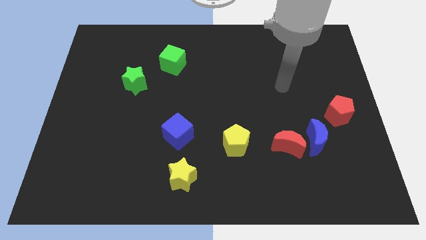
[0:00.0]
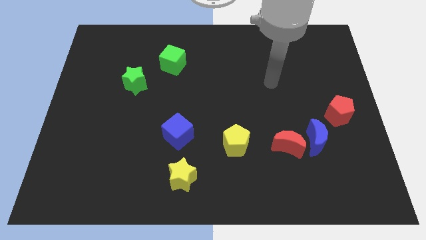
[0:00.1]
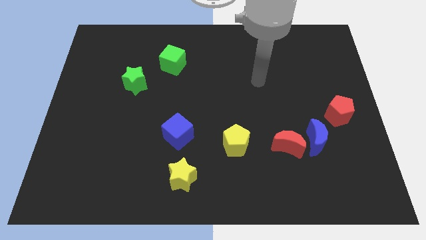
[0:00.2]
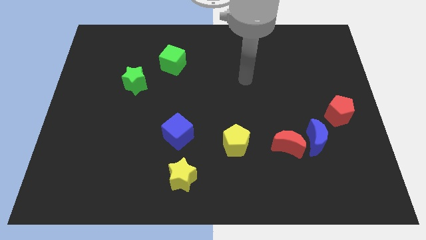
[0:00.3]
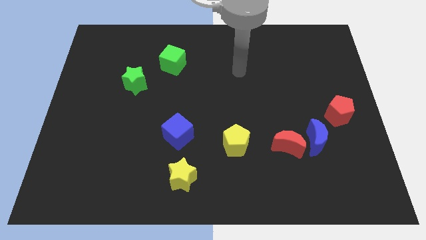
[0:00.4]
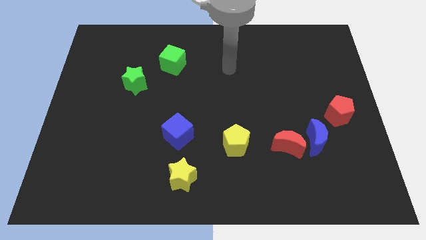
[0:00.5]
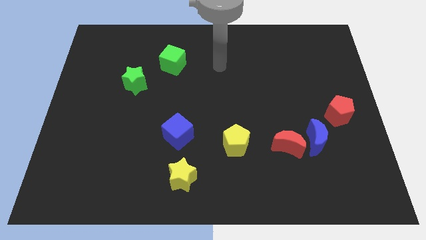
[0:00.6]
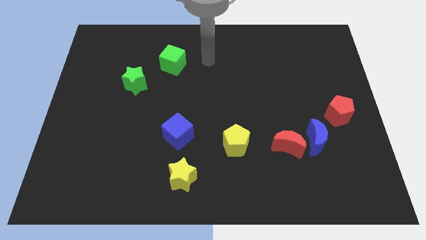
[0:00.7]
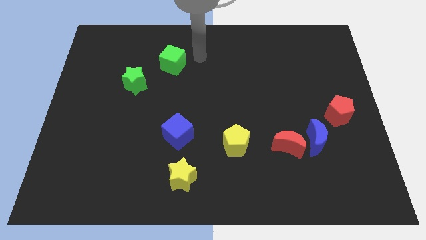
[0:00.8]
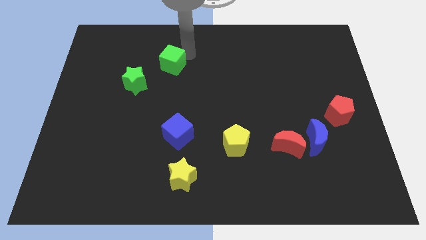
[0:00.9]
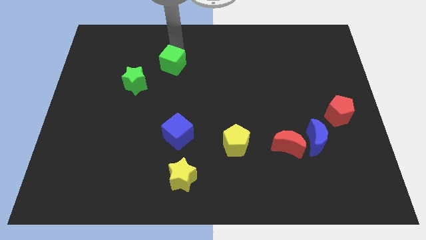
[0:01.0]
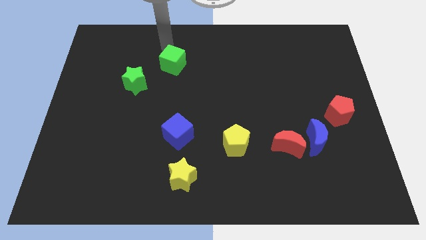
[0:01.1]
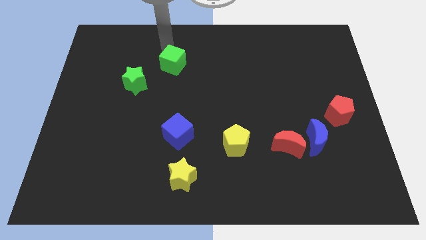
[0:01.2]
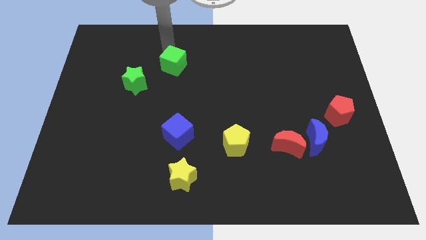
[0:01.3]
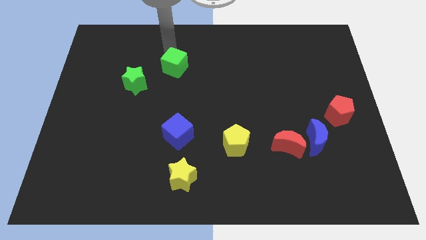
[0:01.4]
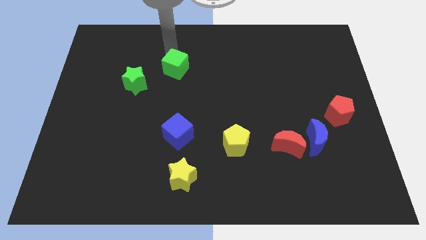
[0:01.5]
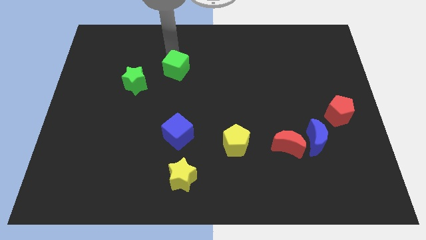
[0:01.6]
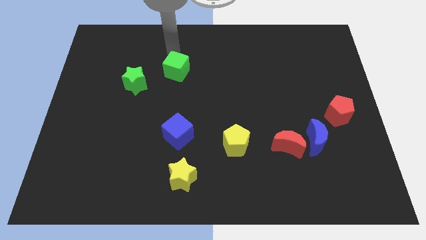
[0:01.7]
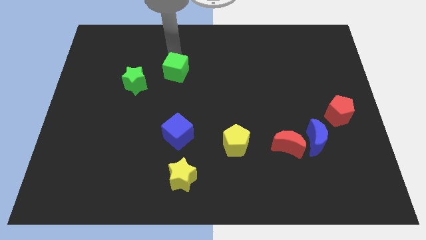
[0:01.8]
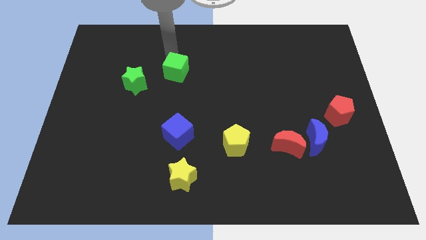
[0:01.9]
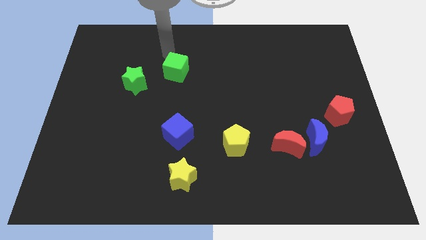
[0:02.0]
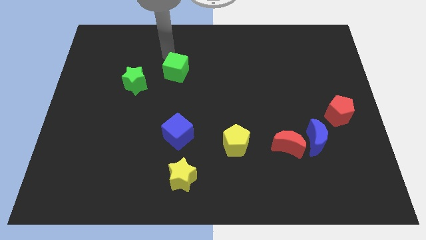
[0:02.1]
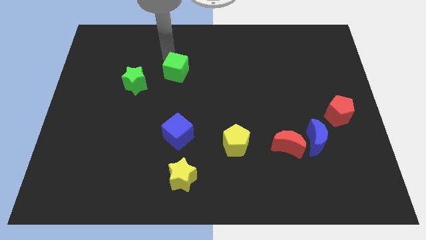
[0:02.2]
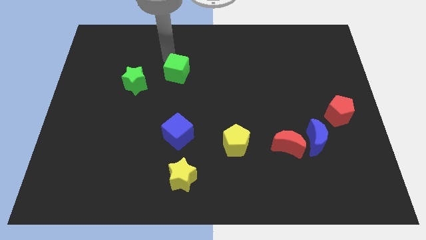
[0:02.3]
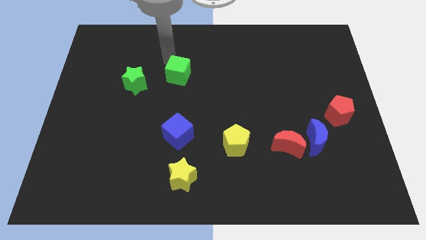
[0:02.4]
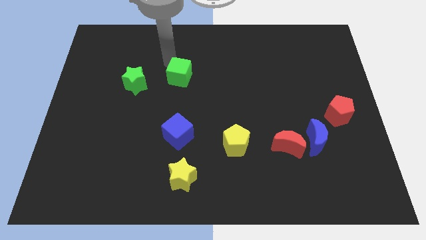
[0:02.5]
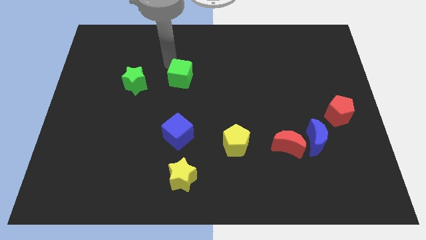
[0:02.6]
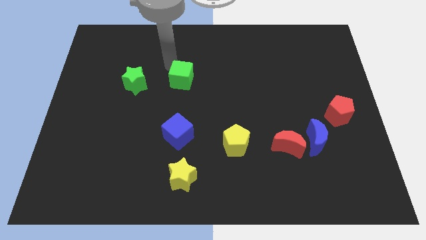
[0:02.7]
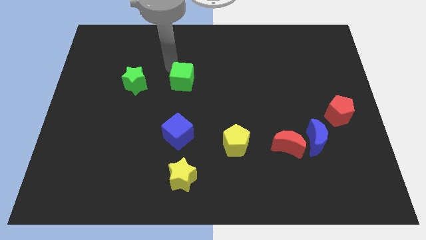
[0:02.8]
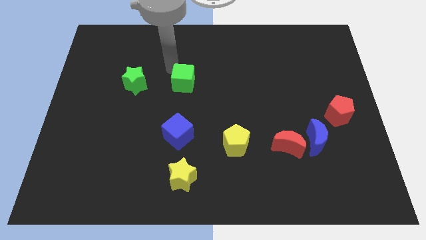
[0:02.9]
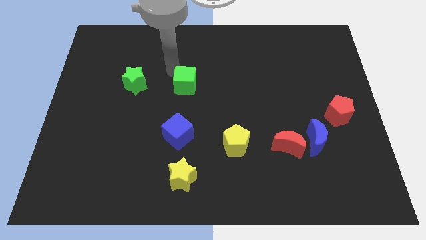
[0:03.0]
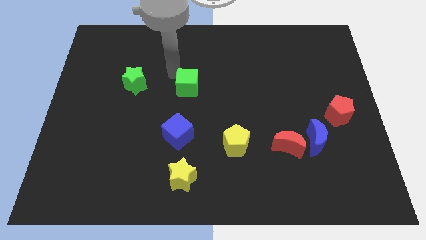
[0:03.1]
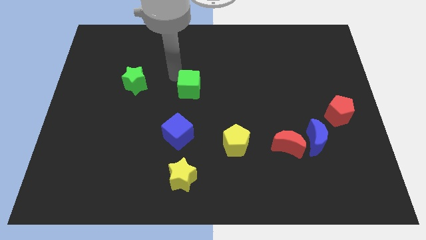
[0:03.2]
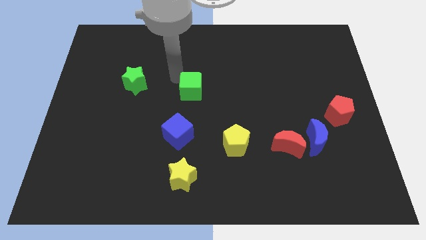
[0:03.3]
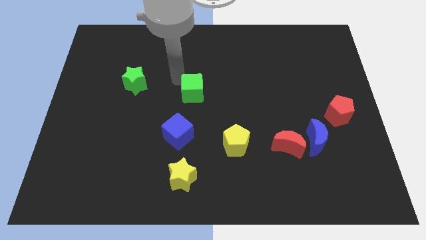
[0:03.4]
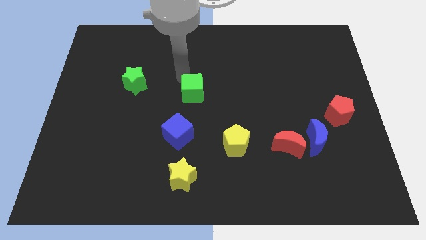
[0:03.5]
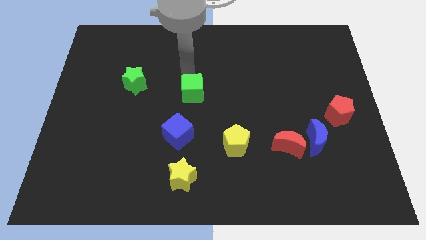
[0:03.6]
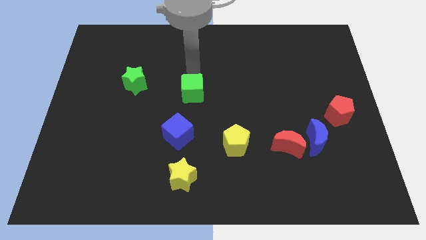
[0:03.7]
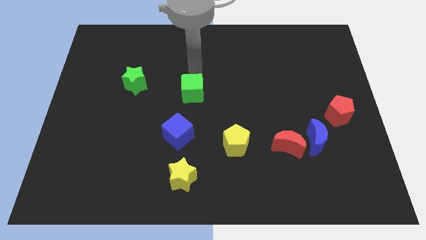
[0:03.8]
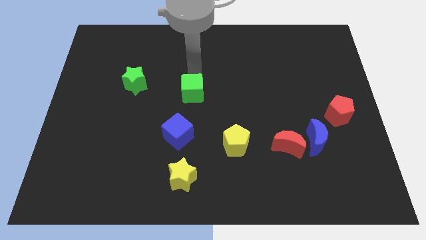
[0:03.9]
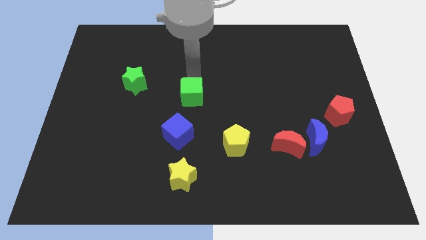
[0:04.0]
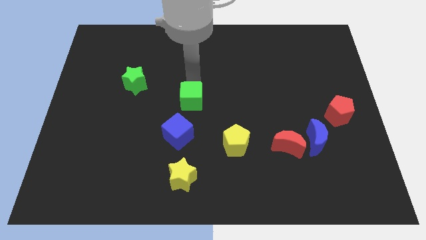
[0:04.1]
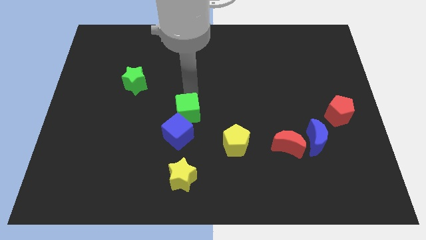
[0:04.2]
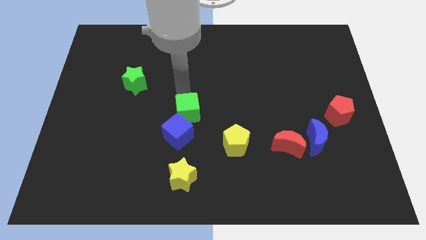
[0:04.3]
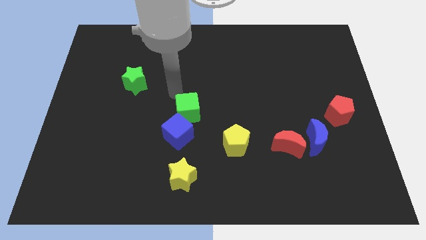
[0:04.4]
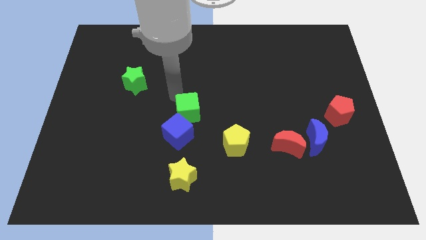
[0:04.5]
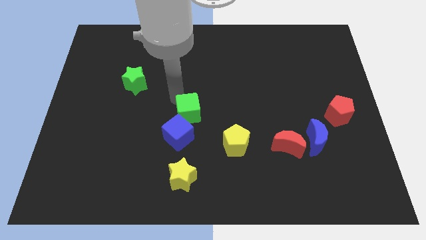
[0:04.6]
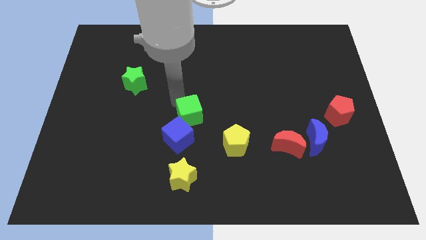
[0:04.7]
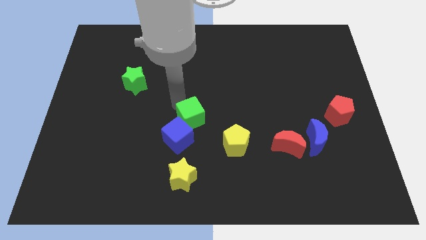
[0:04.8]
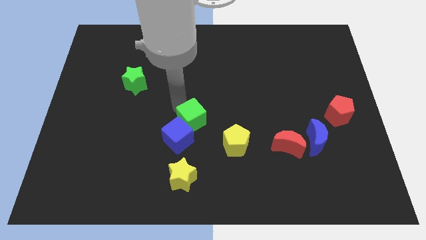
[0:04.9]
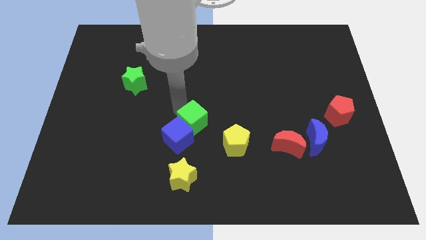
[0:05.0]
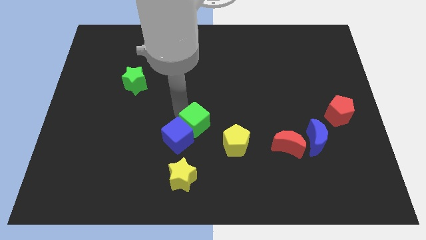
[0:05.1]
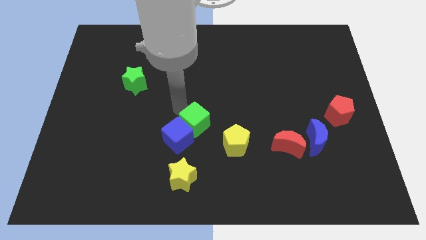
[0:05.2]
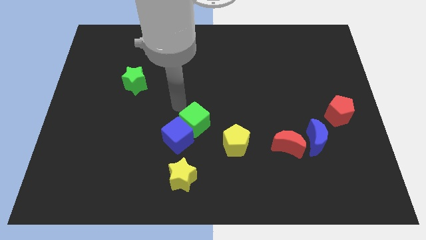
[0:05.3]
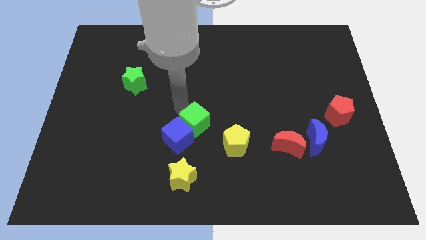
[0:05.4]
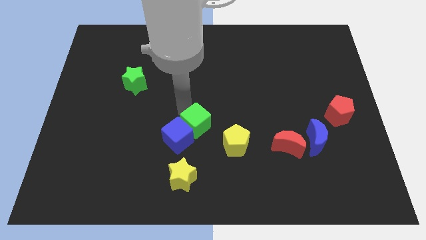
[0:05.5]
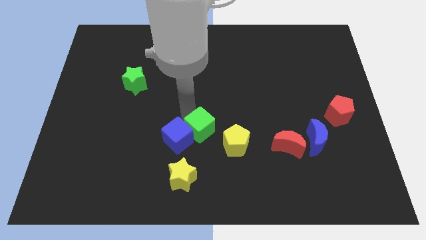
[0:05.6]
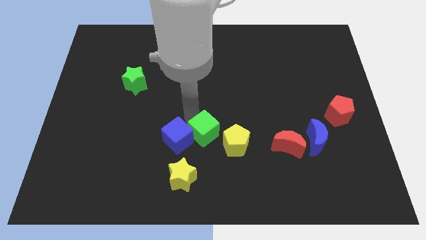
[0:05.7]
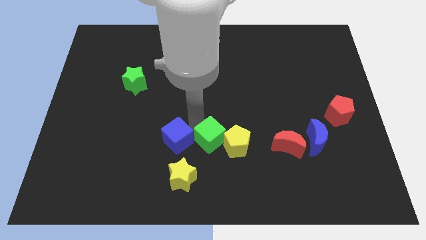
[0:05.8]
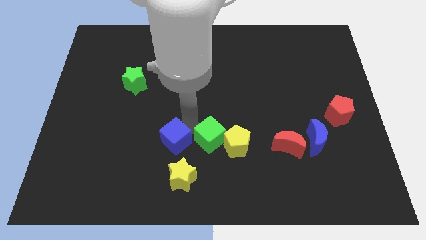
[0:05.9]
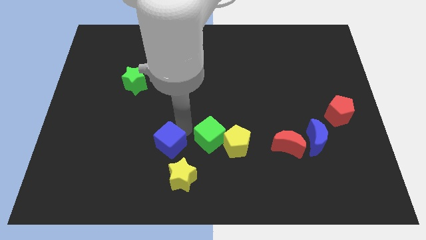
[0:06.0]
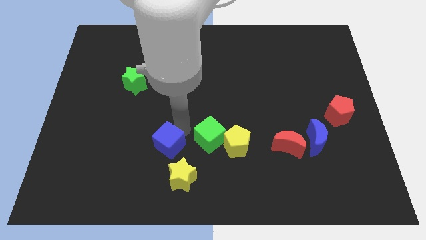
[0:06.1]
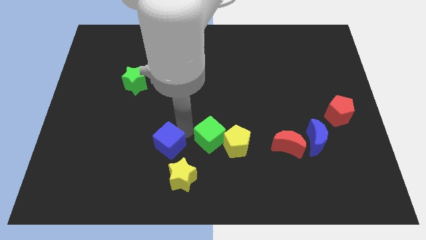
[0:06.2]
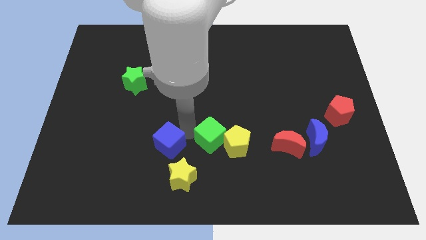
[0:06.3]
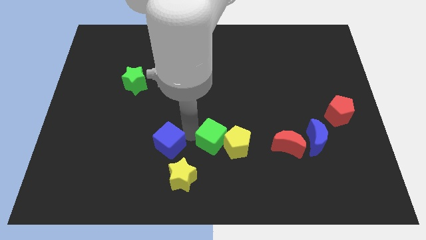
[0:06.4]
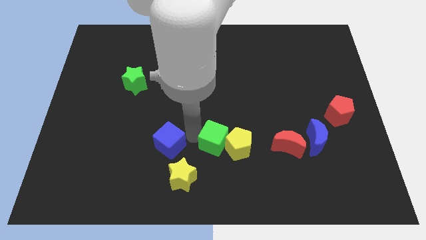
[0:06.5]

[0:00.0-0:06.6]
slide the green cube to the left side of the red moon
